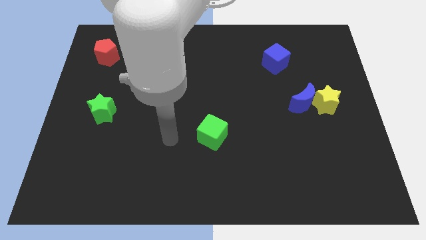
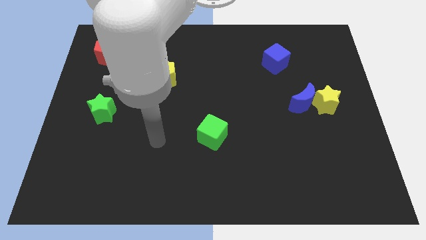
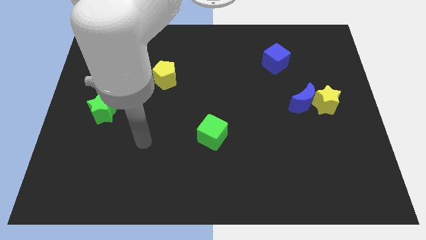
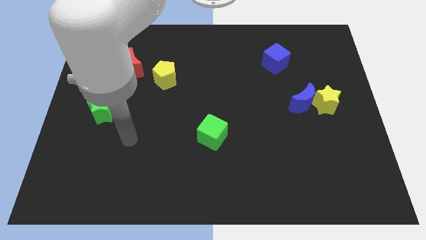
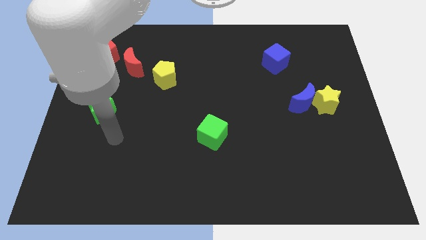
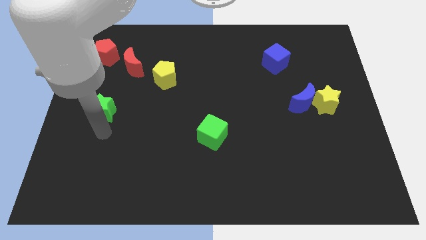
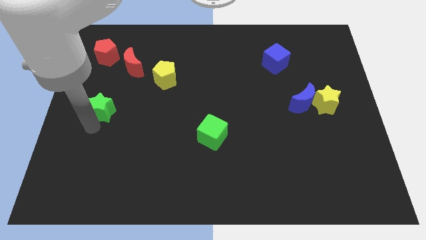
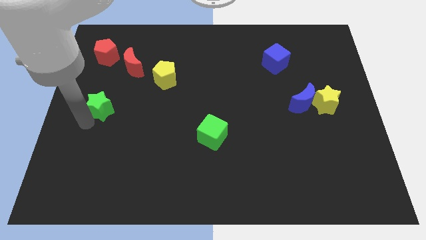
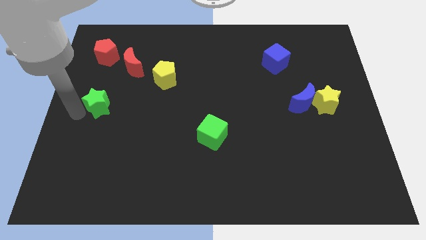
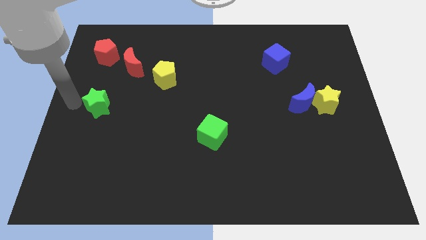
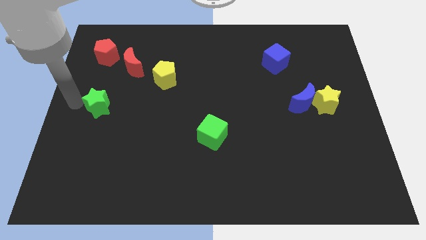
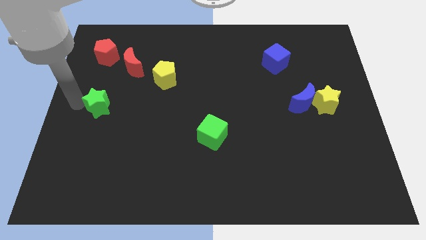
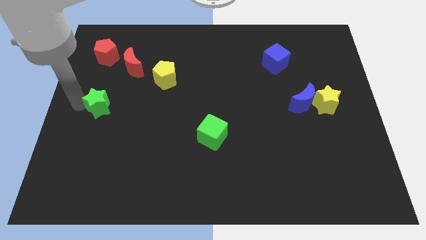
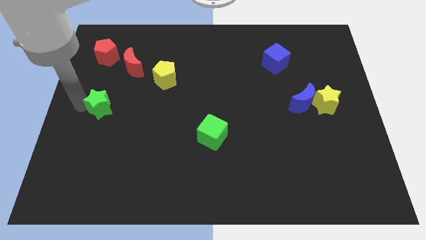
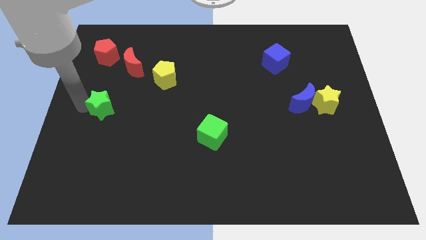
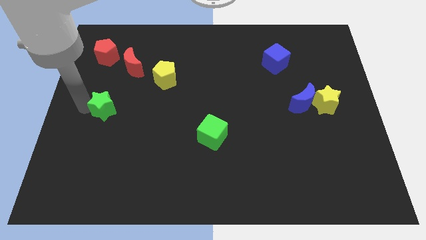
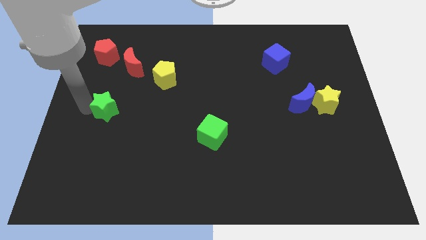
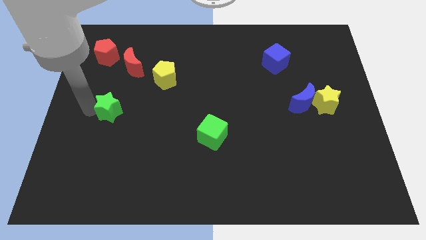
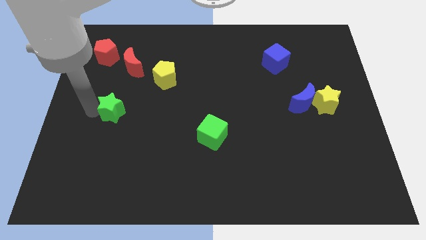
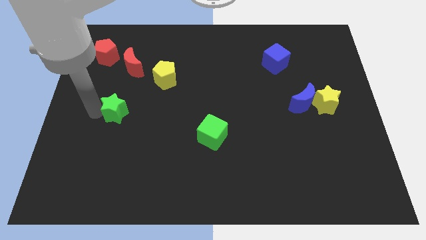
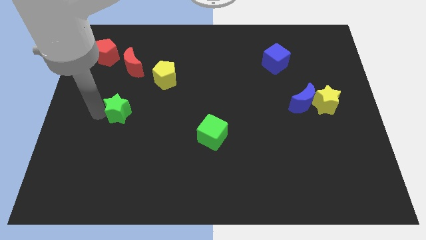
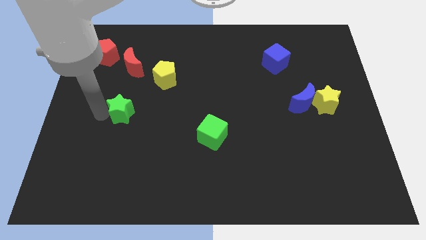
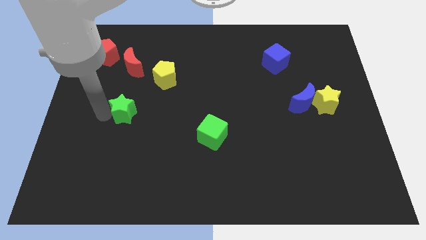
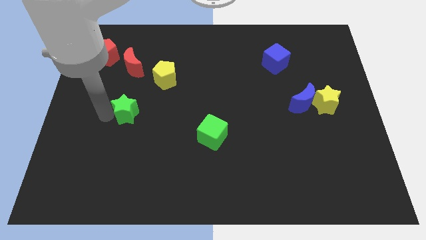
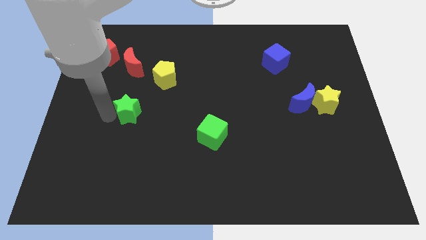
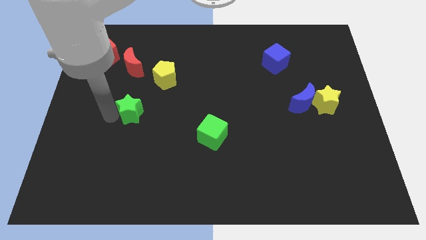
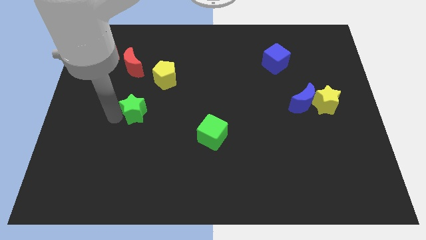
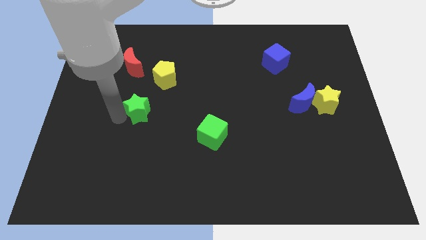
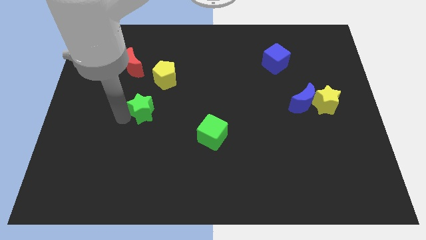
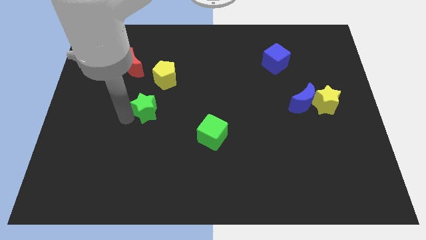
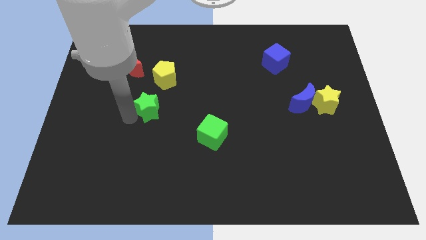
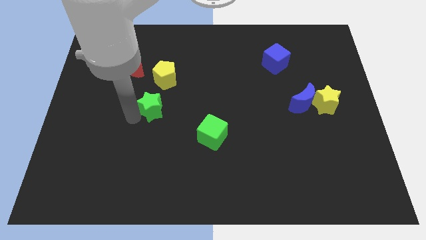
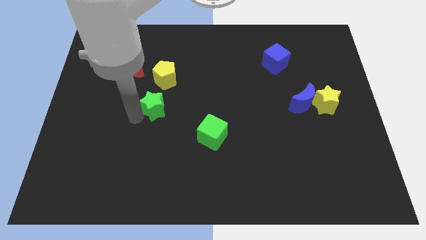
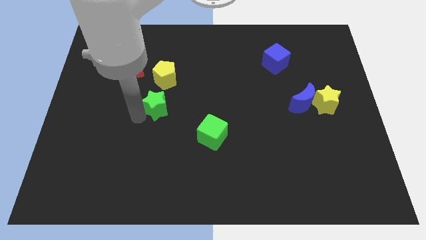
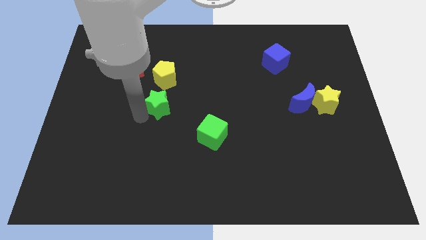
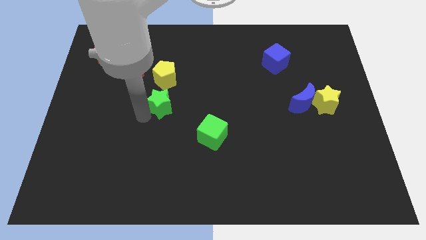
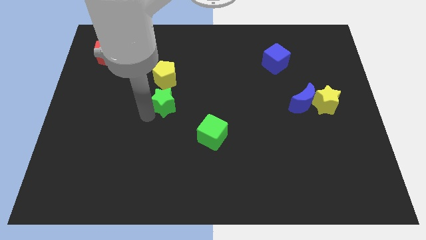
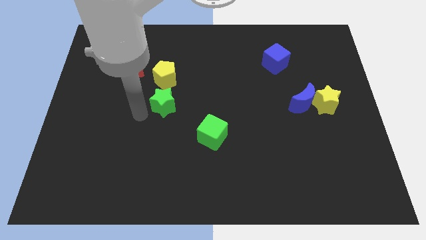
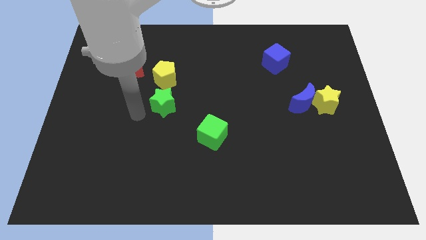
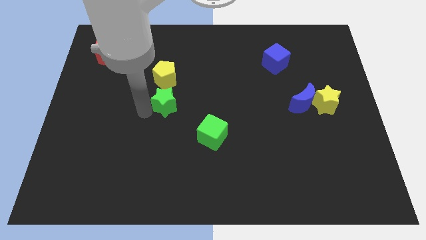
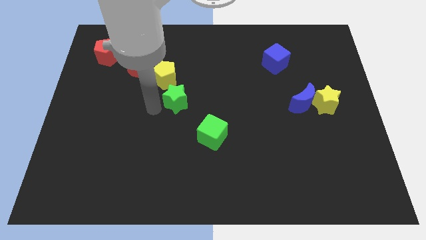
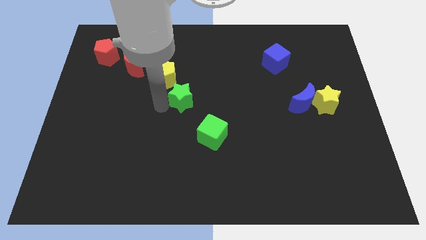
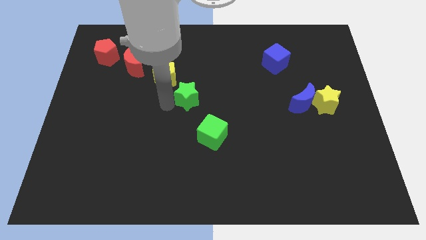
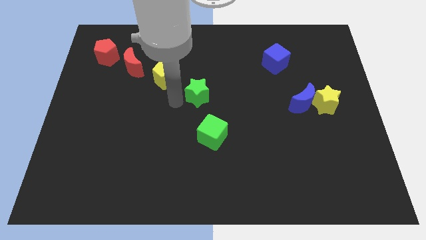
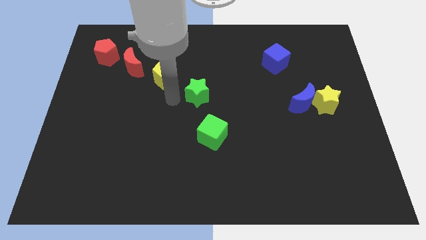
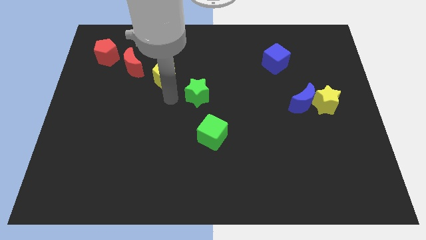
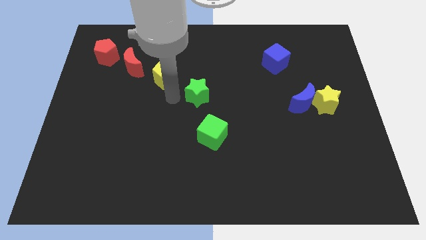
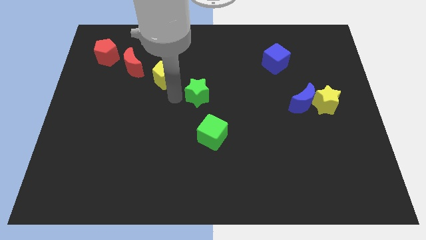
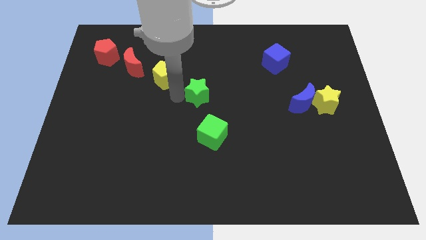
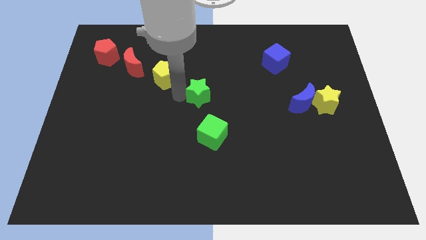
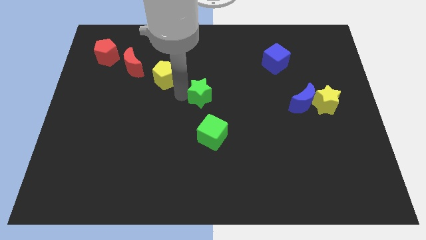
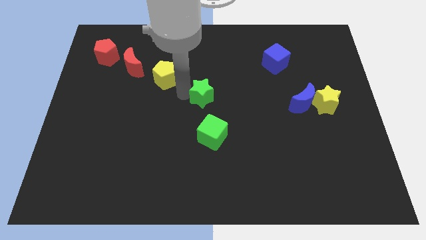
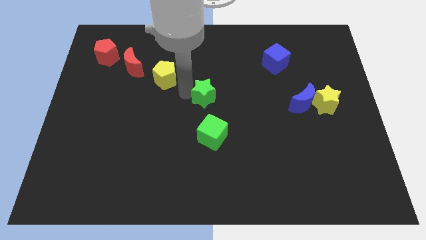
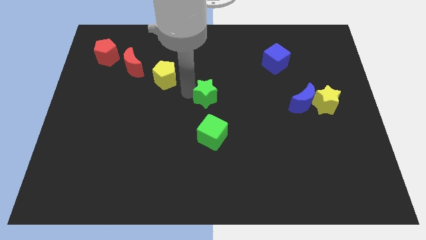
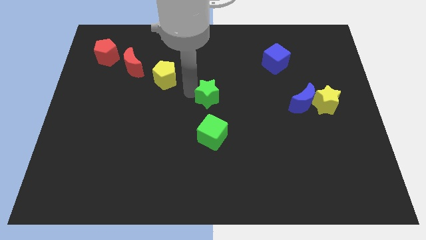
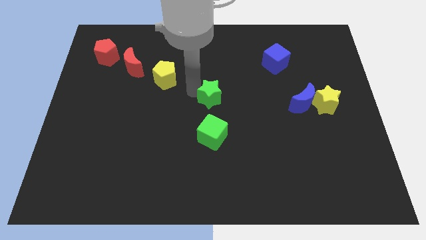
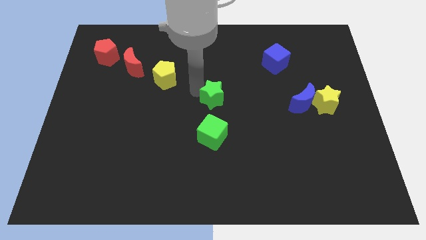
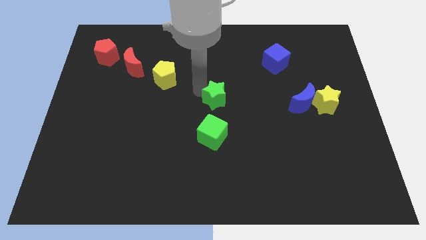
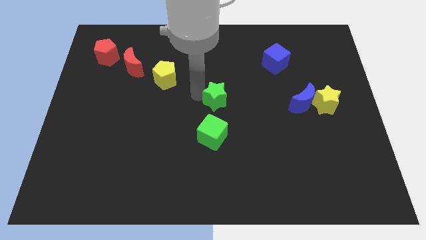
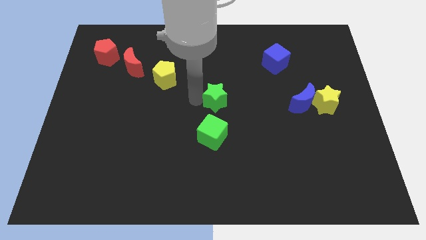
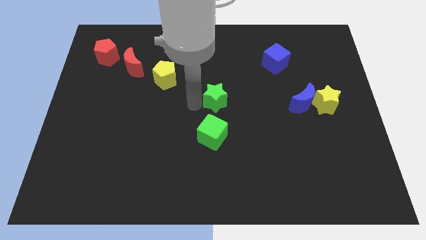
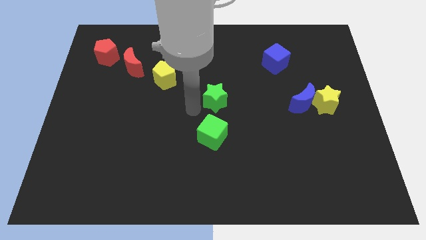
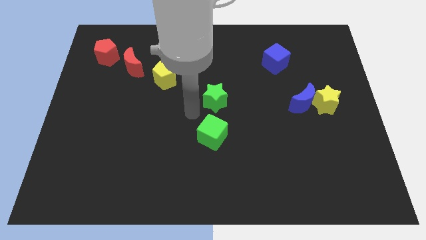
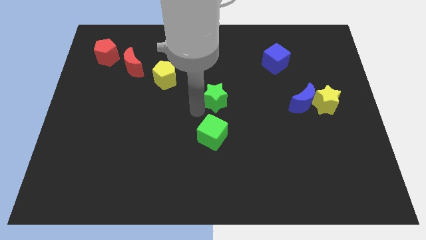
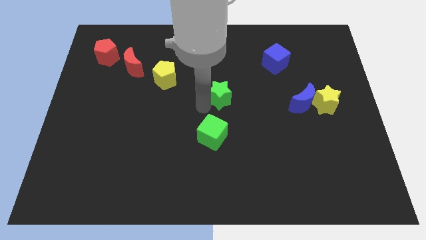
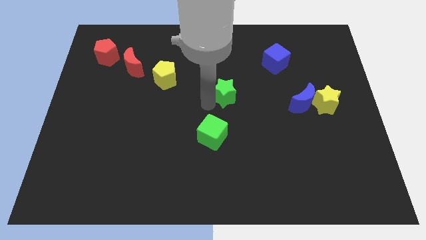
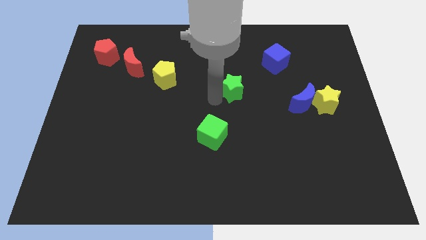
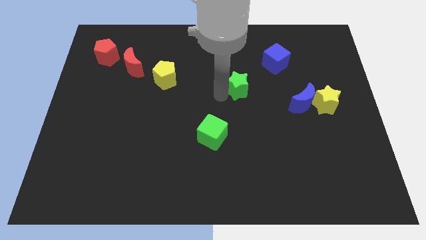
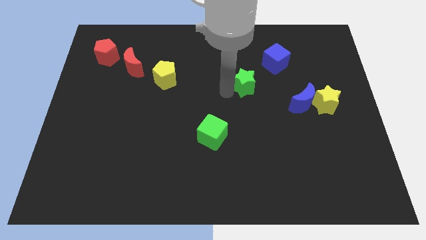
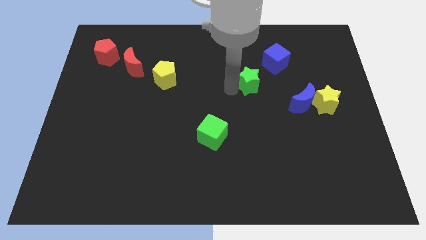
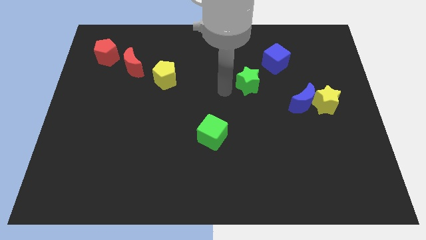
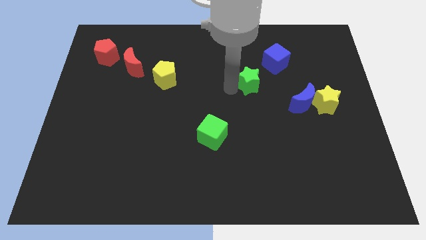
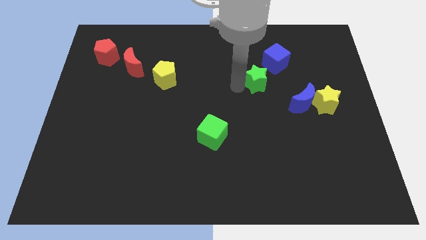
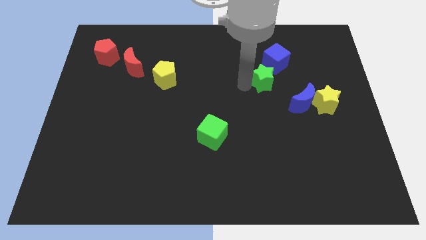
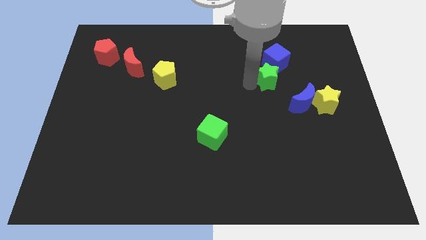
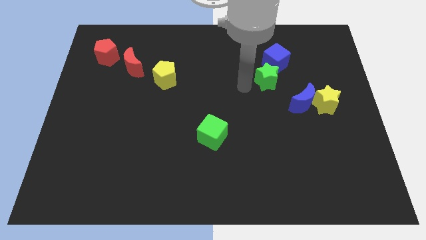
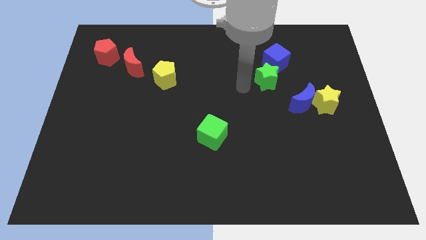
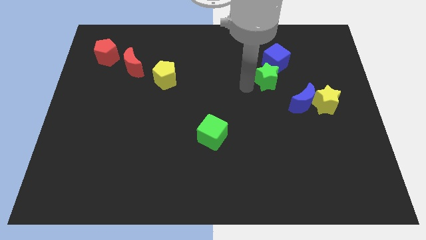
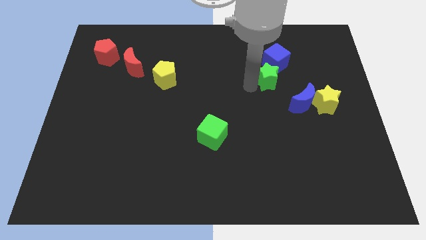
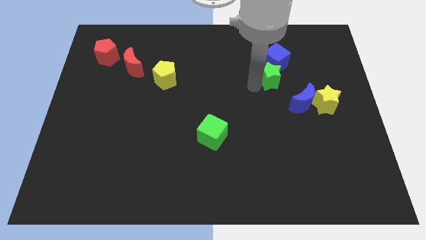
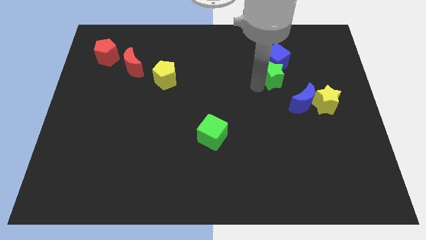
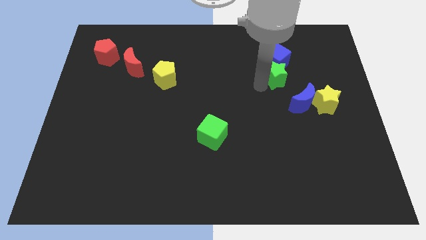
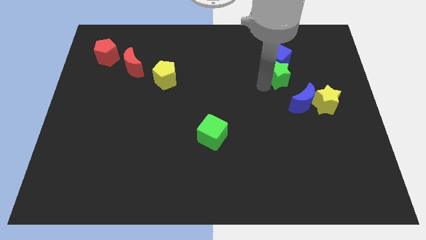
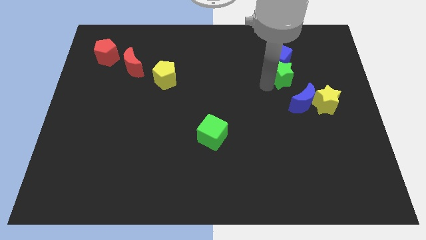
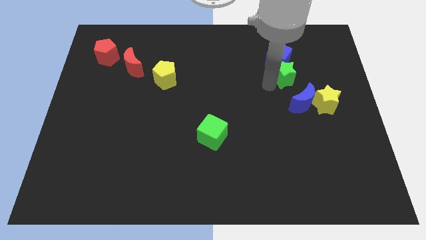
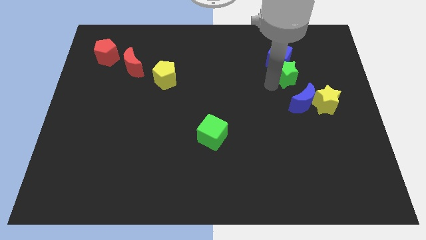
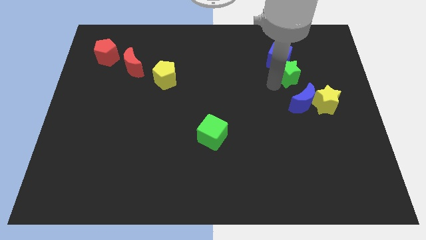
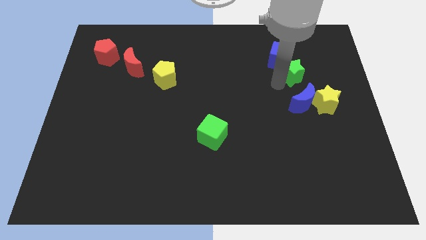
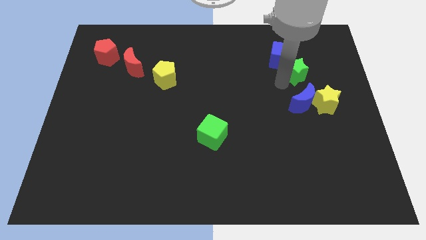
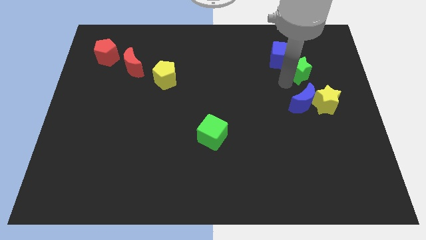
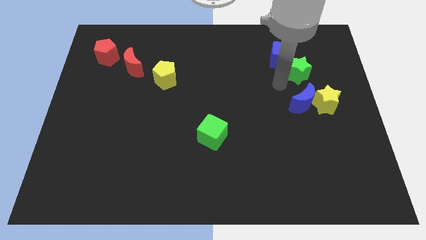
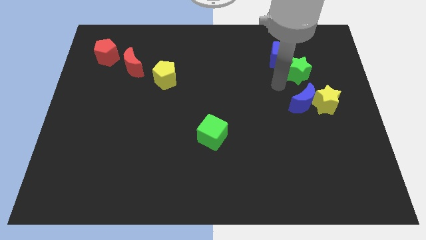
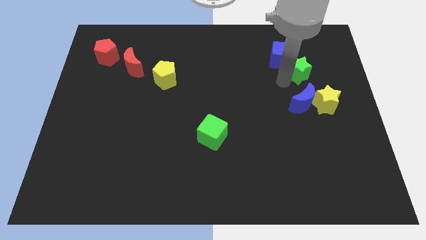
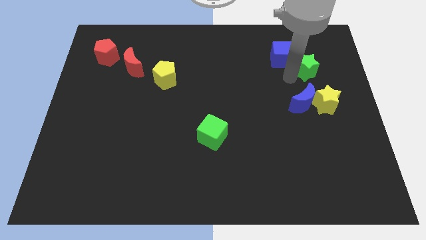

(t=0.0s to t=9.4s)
push the green star to the right of the blue cube
